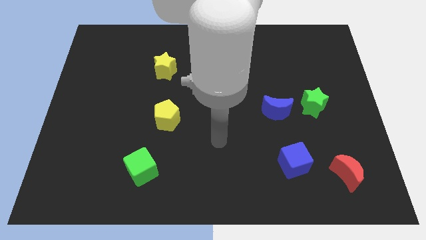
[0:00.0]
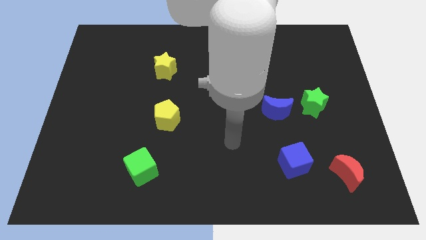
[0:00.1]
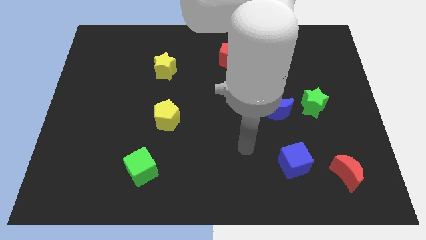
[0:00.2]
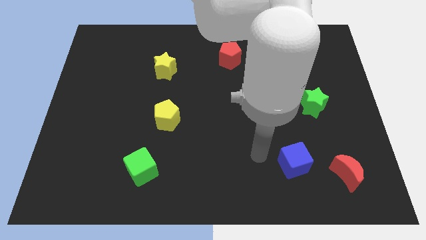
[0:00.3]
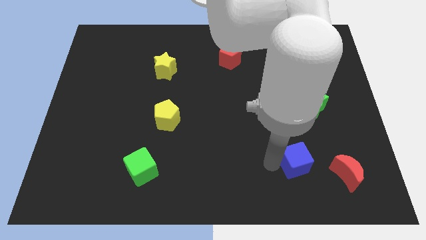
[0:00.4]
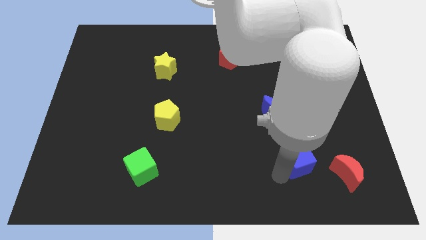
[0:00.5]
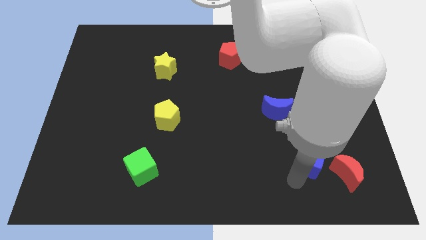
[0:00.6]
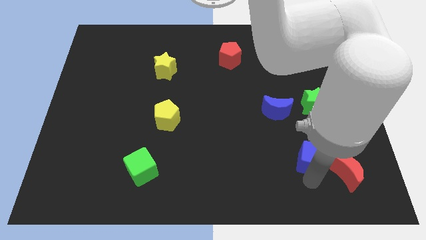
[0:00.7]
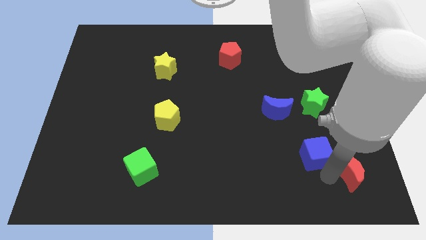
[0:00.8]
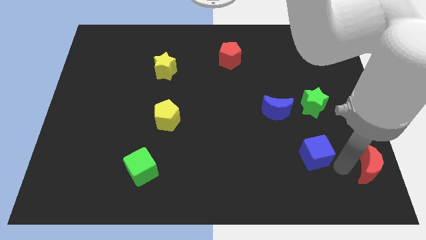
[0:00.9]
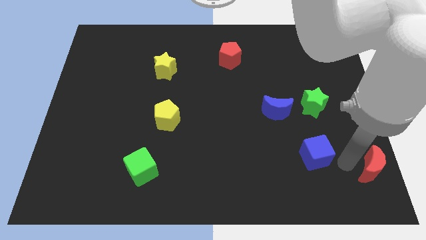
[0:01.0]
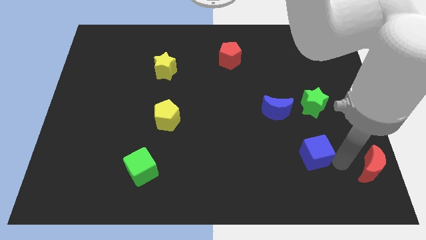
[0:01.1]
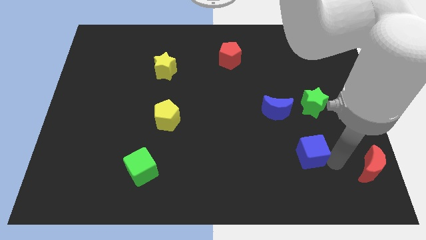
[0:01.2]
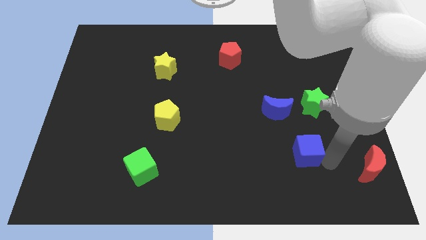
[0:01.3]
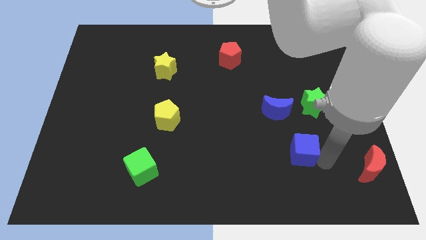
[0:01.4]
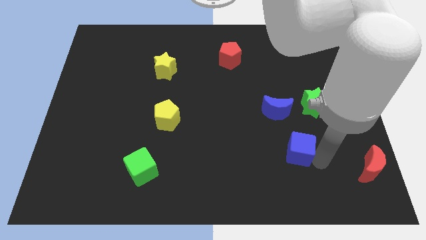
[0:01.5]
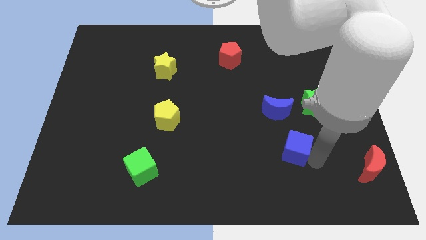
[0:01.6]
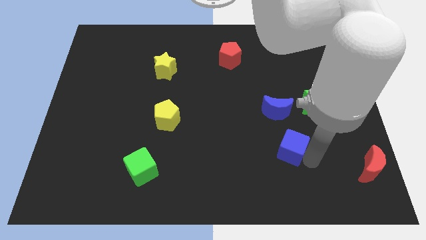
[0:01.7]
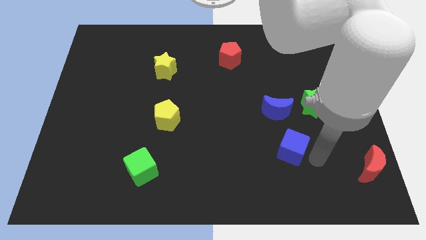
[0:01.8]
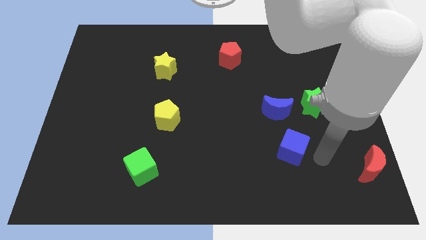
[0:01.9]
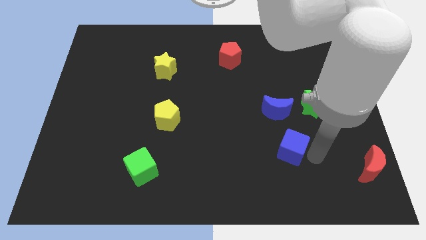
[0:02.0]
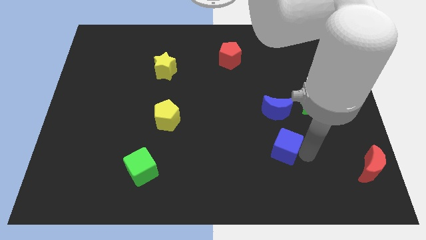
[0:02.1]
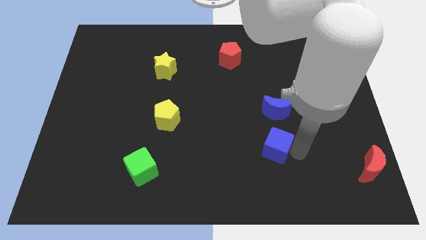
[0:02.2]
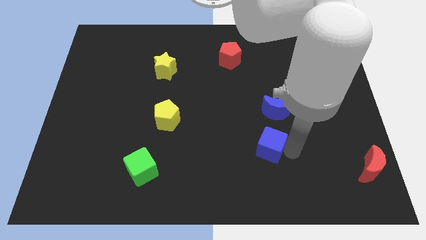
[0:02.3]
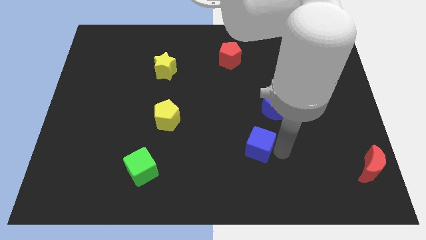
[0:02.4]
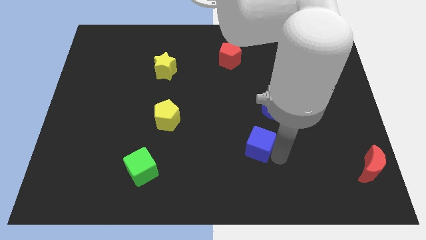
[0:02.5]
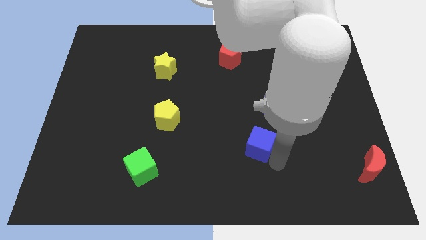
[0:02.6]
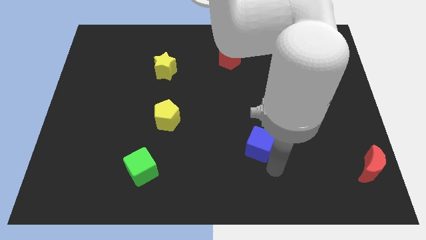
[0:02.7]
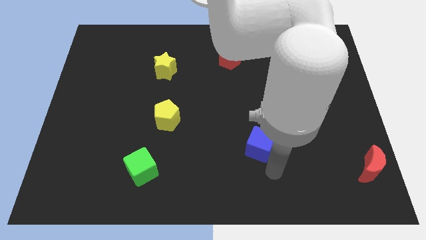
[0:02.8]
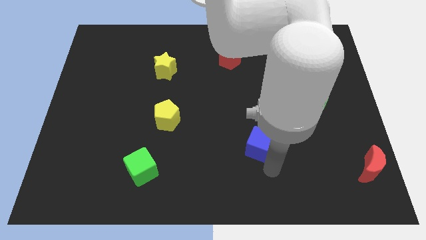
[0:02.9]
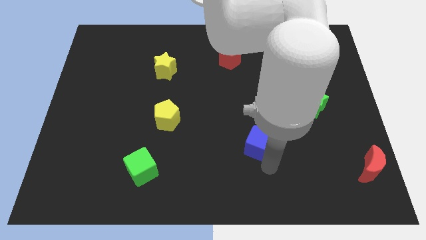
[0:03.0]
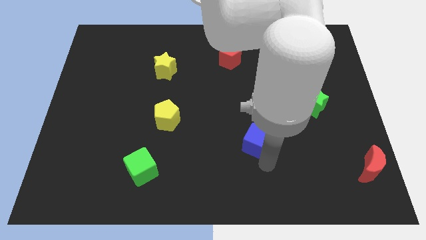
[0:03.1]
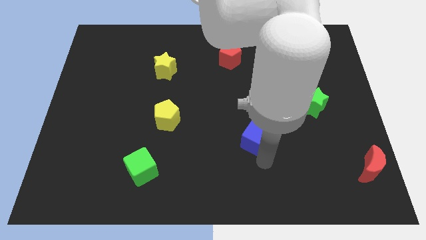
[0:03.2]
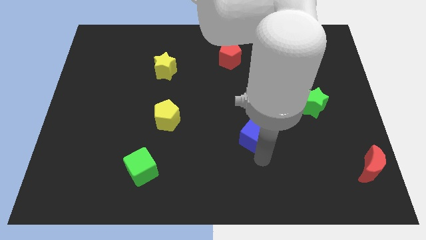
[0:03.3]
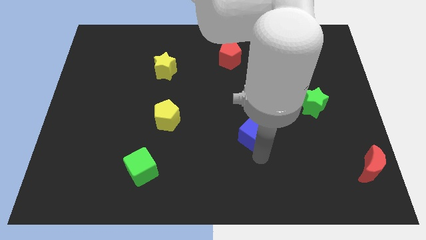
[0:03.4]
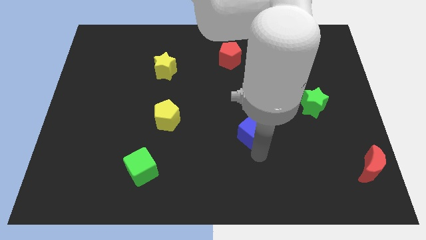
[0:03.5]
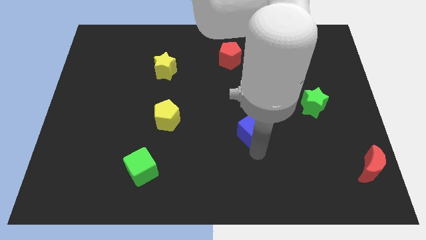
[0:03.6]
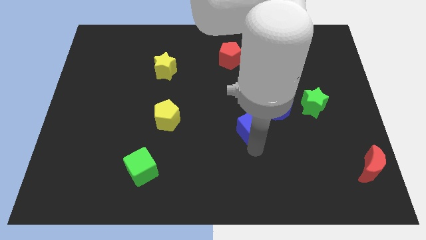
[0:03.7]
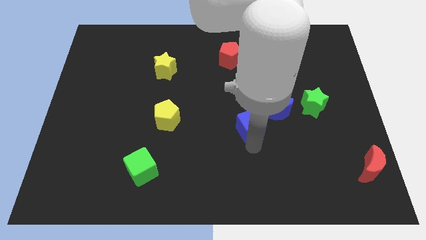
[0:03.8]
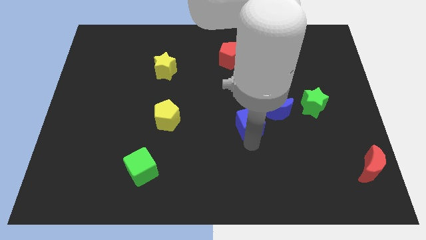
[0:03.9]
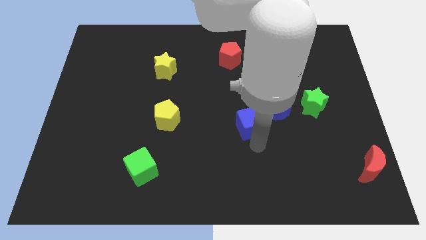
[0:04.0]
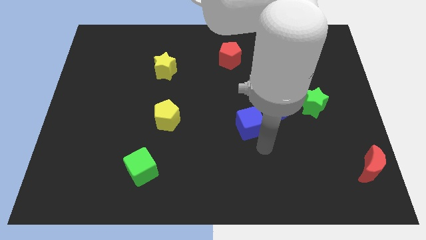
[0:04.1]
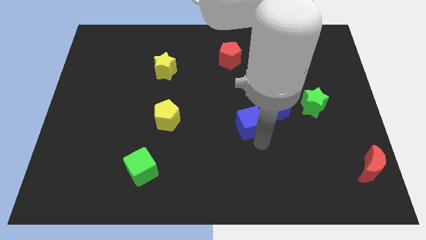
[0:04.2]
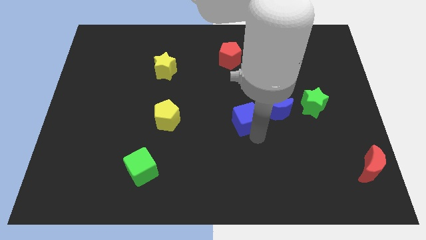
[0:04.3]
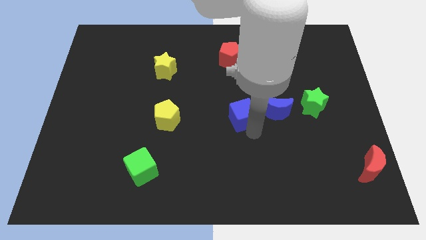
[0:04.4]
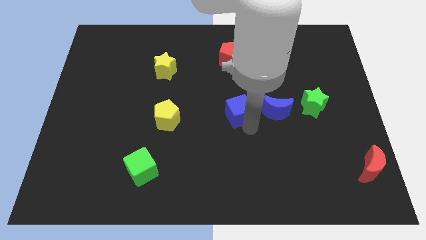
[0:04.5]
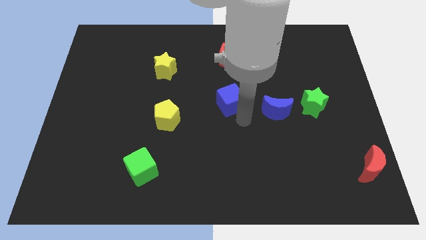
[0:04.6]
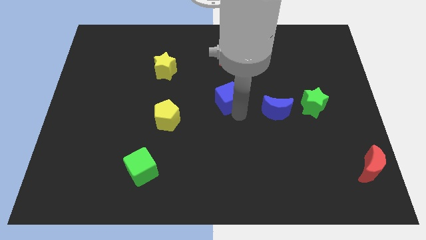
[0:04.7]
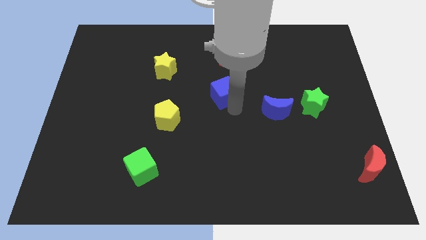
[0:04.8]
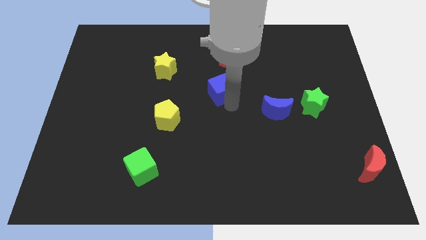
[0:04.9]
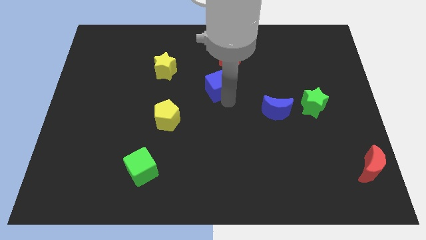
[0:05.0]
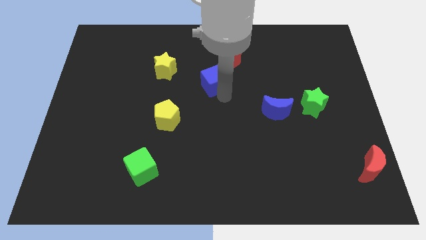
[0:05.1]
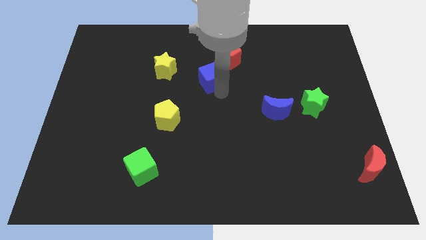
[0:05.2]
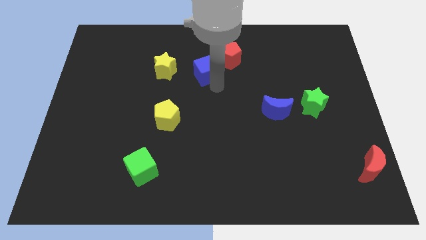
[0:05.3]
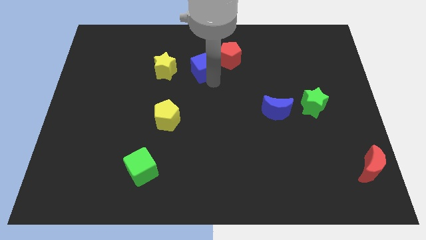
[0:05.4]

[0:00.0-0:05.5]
slide the blue cube to the left of the red pentagon

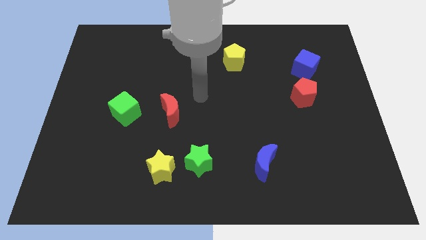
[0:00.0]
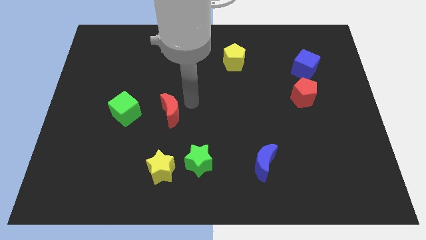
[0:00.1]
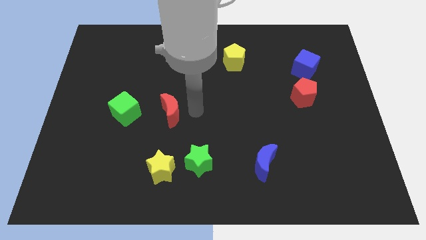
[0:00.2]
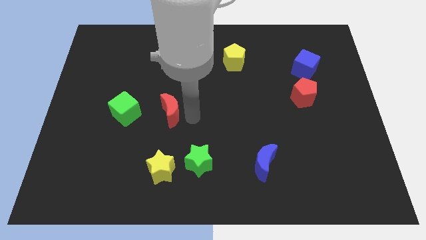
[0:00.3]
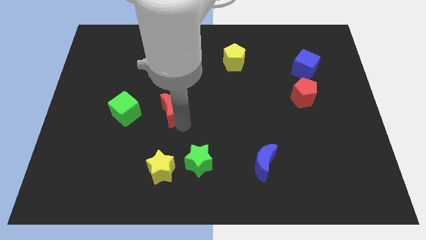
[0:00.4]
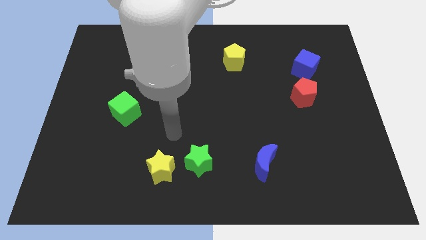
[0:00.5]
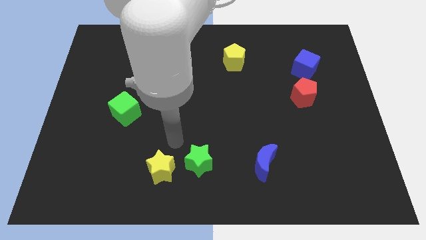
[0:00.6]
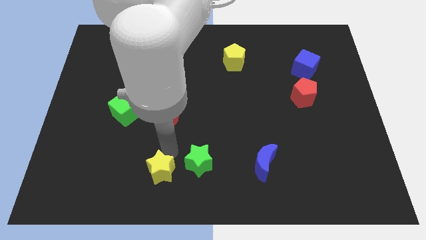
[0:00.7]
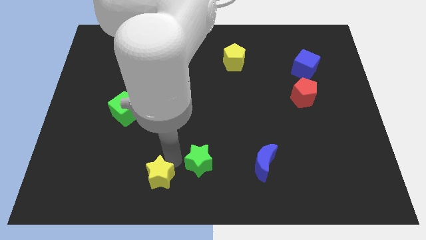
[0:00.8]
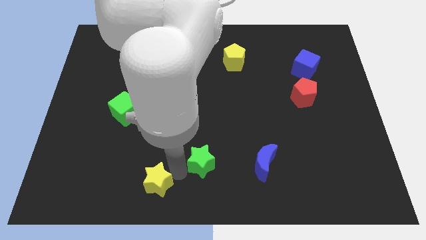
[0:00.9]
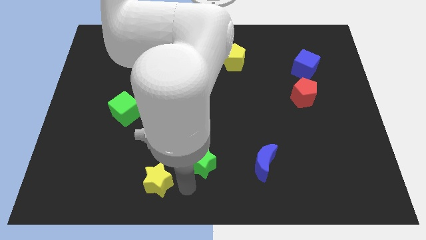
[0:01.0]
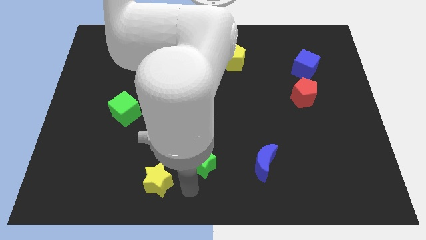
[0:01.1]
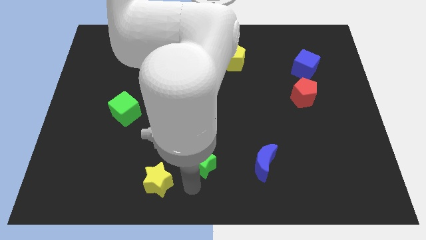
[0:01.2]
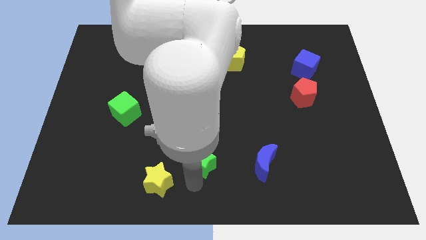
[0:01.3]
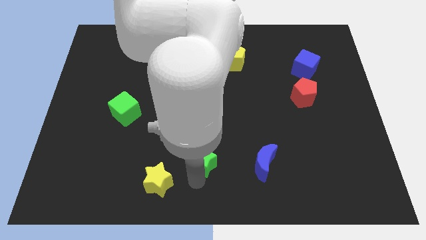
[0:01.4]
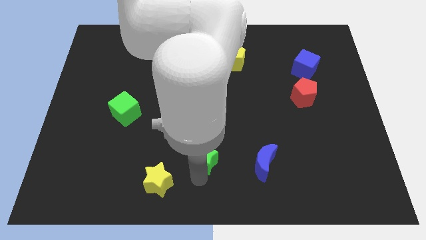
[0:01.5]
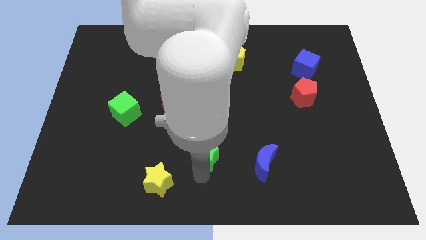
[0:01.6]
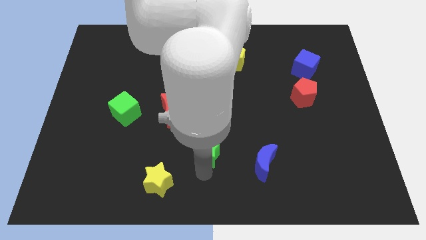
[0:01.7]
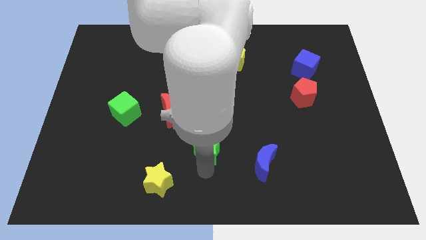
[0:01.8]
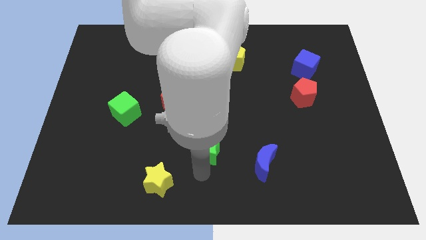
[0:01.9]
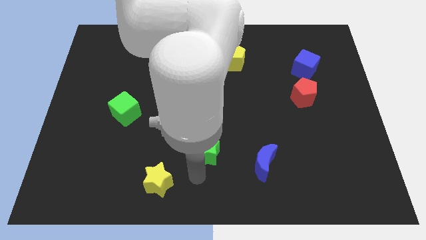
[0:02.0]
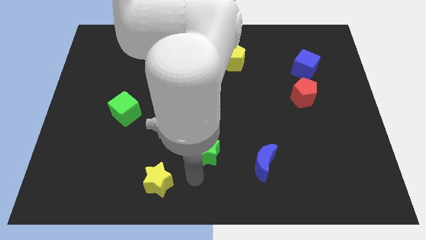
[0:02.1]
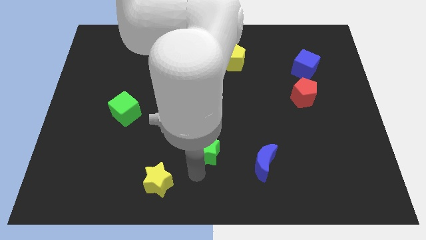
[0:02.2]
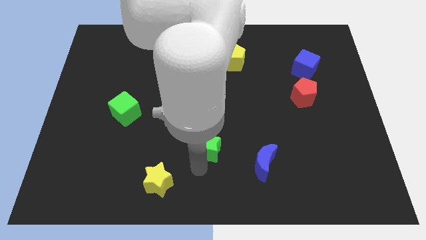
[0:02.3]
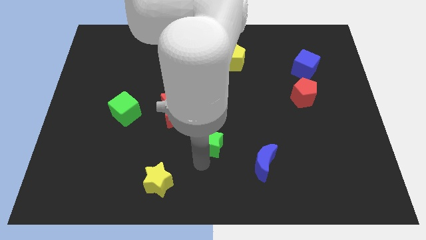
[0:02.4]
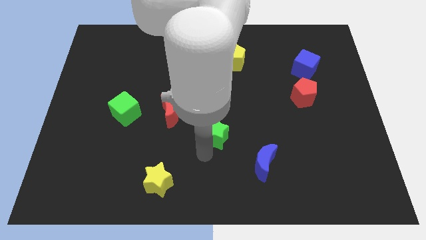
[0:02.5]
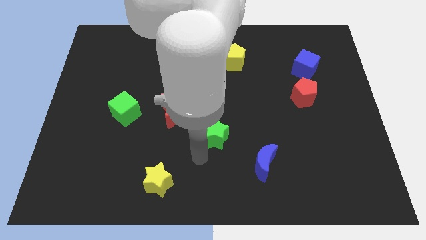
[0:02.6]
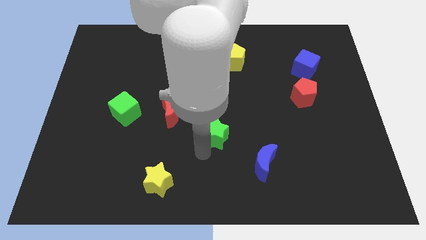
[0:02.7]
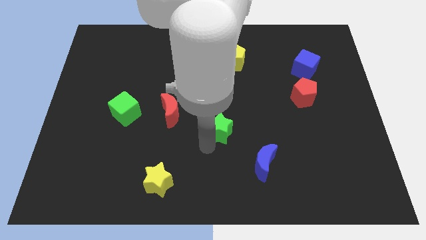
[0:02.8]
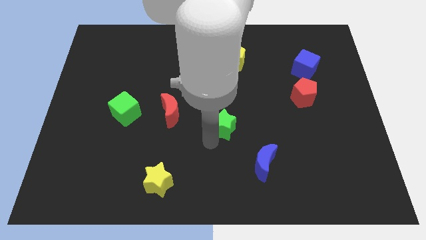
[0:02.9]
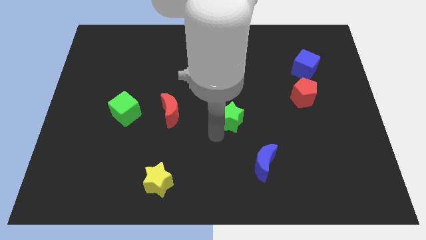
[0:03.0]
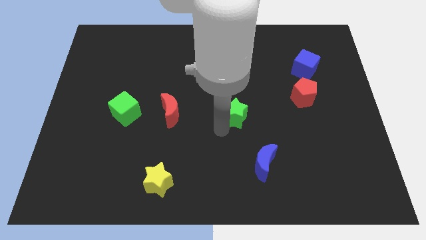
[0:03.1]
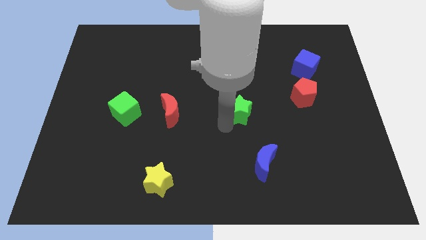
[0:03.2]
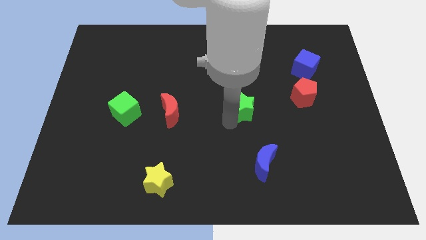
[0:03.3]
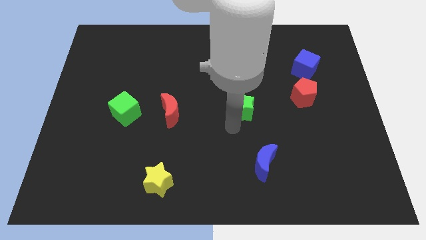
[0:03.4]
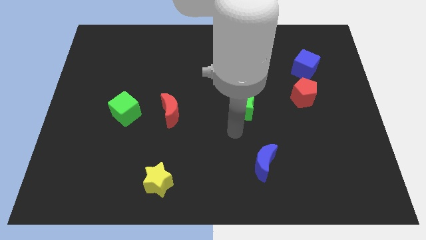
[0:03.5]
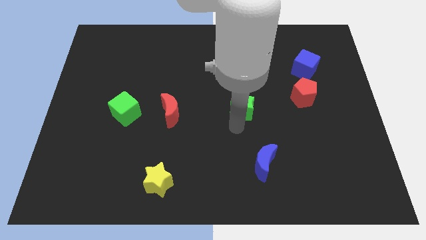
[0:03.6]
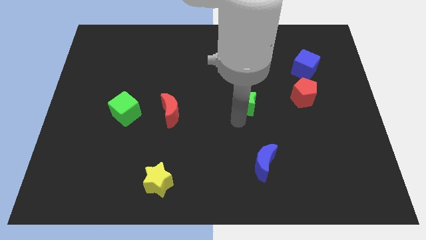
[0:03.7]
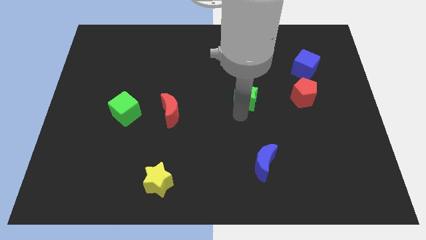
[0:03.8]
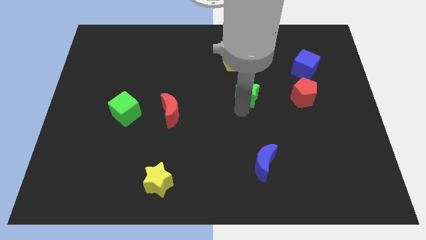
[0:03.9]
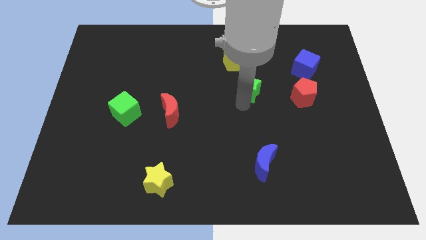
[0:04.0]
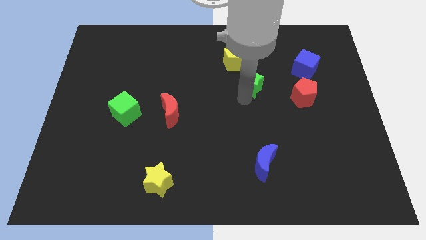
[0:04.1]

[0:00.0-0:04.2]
put the green star to the bottom right side of the yellow pentagon
